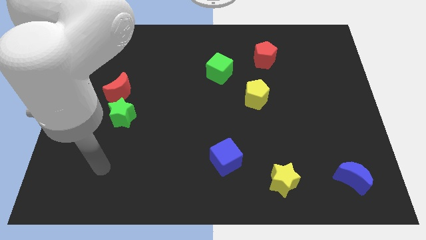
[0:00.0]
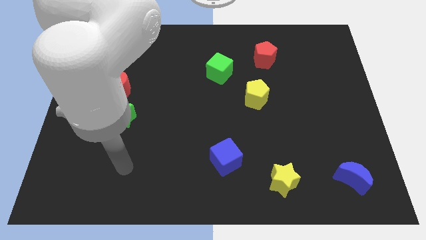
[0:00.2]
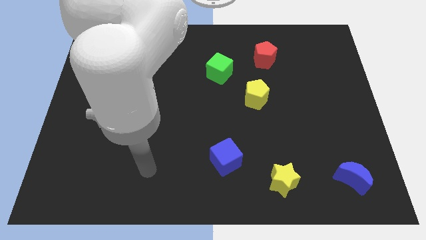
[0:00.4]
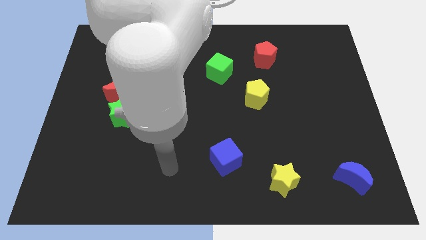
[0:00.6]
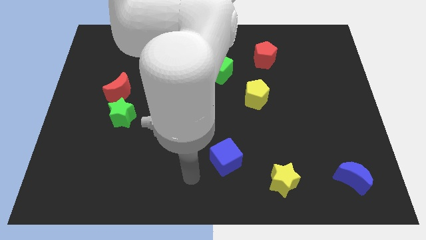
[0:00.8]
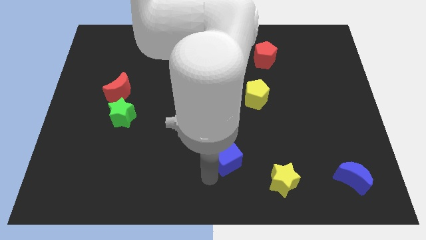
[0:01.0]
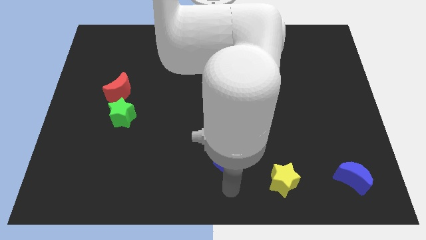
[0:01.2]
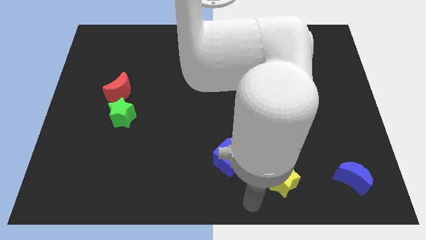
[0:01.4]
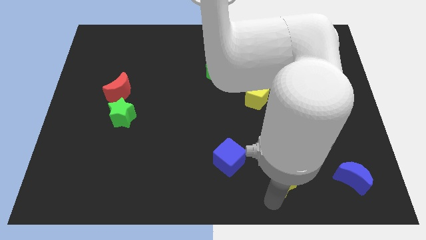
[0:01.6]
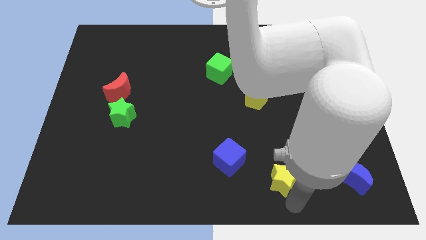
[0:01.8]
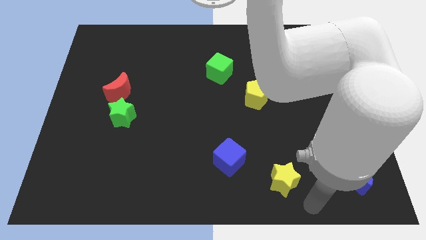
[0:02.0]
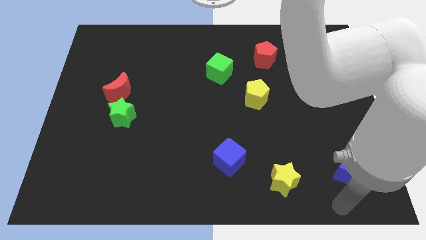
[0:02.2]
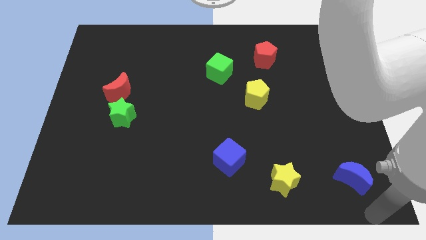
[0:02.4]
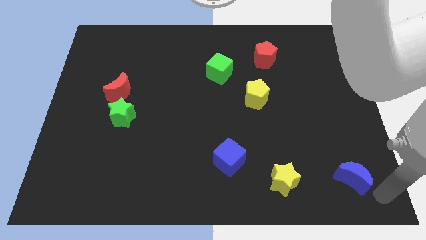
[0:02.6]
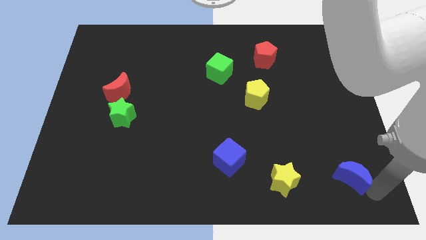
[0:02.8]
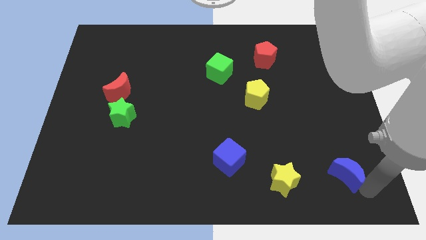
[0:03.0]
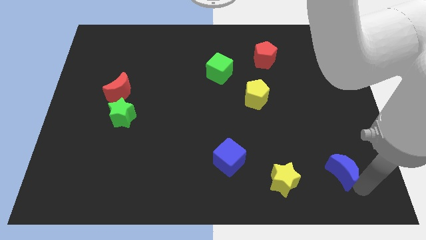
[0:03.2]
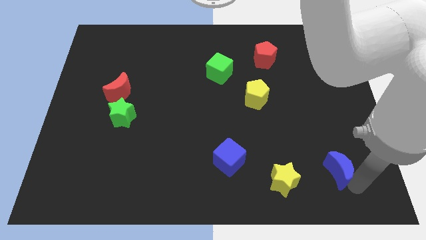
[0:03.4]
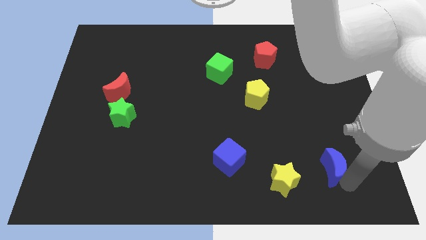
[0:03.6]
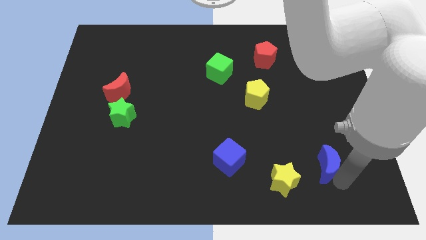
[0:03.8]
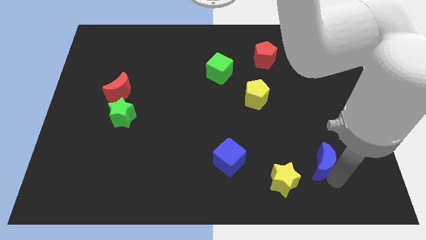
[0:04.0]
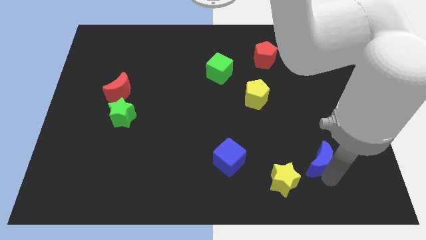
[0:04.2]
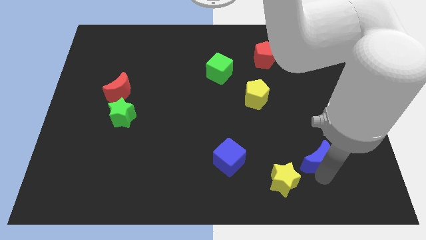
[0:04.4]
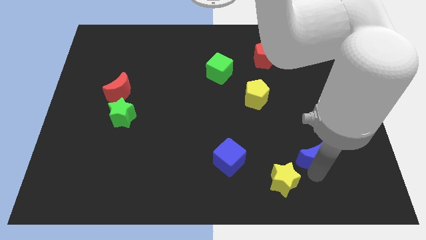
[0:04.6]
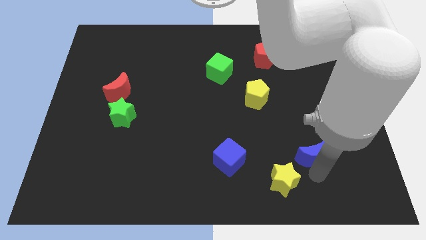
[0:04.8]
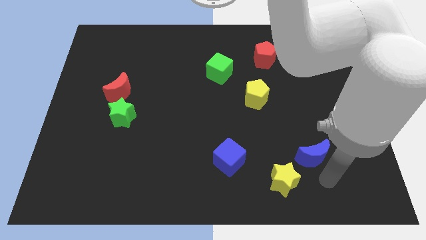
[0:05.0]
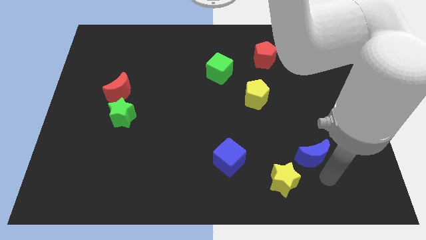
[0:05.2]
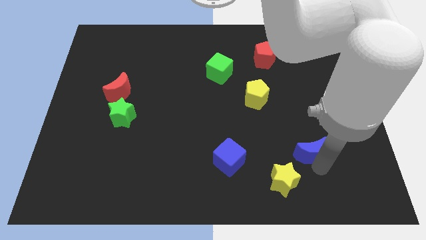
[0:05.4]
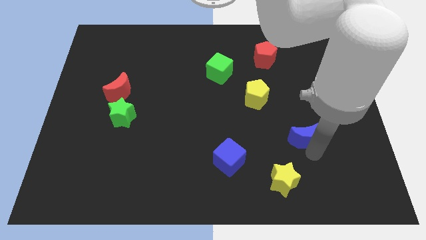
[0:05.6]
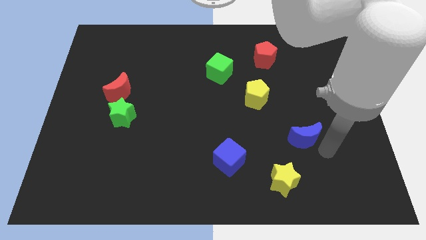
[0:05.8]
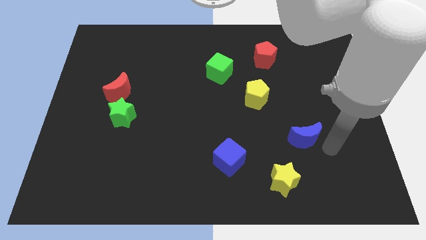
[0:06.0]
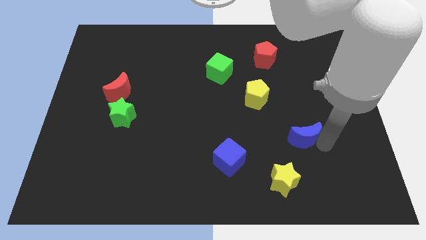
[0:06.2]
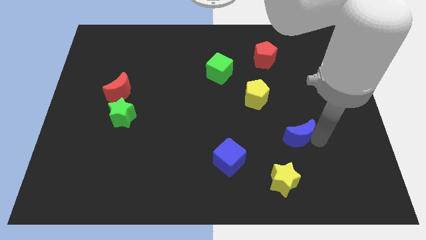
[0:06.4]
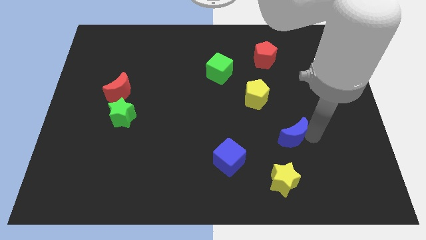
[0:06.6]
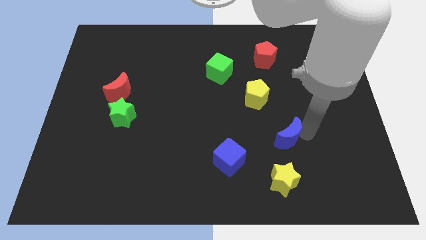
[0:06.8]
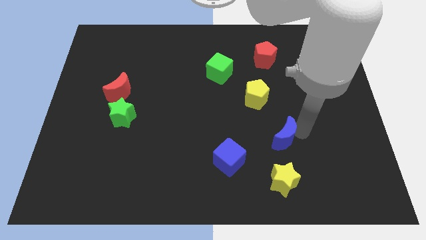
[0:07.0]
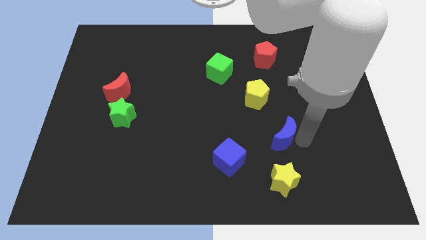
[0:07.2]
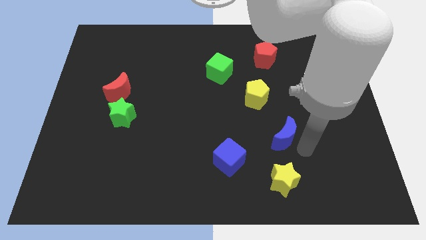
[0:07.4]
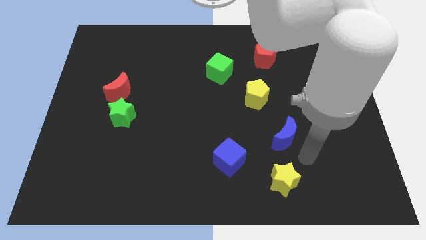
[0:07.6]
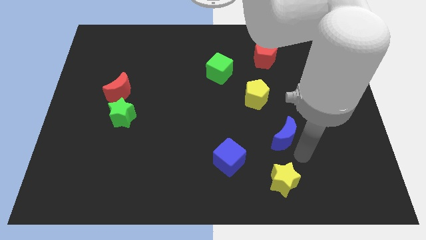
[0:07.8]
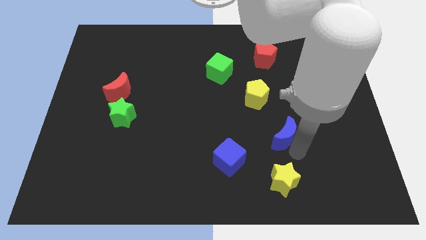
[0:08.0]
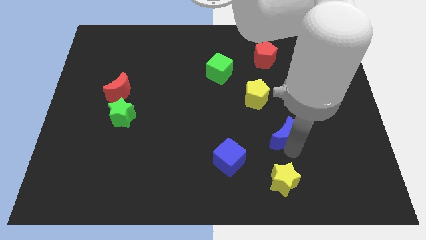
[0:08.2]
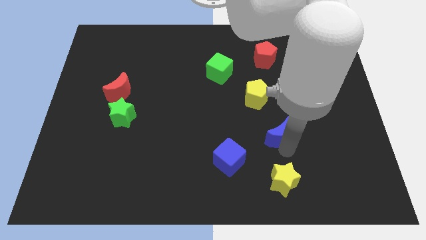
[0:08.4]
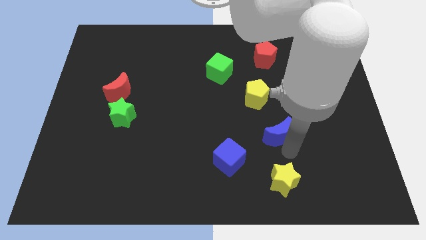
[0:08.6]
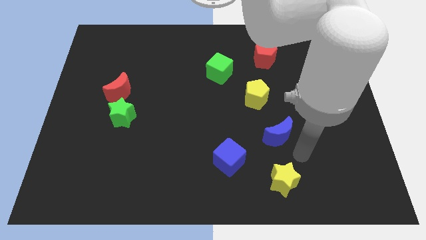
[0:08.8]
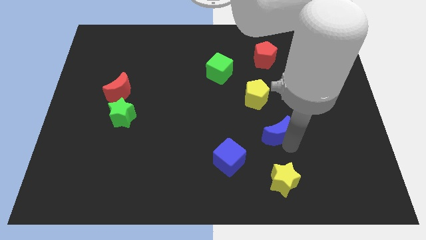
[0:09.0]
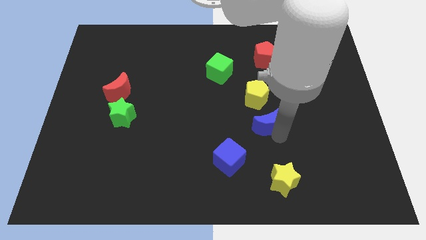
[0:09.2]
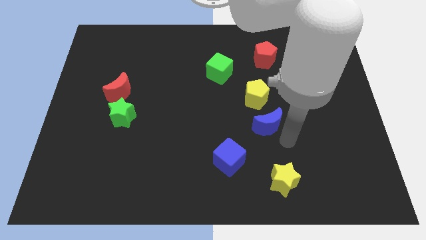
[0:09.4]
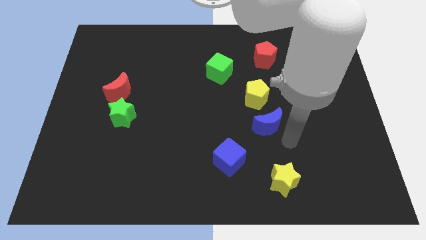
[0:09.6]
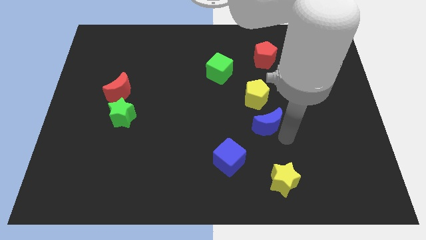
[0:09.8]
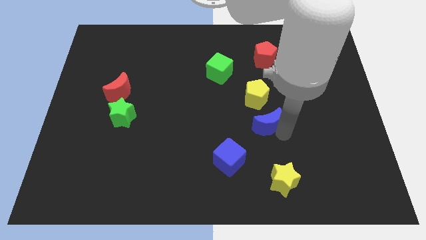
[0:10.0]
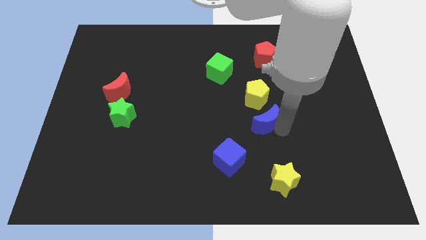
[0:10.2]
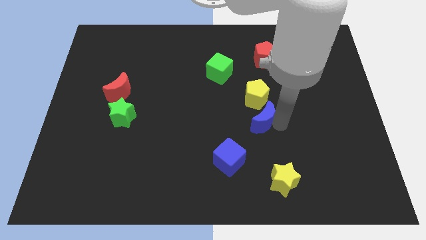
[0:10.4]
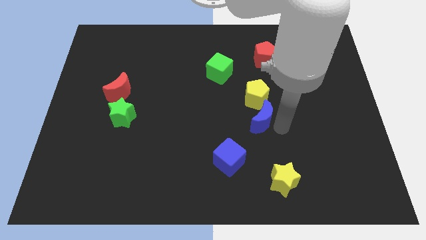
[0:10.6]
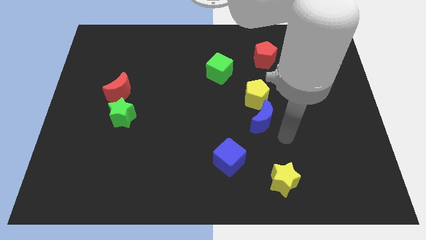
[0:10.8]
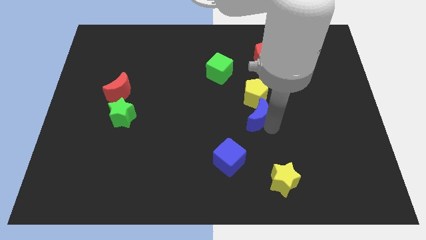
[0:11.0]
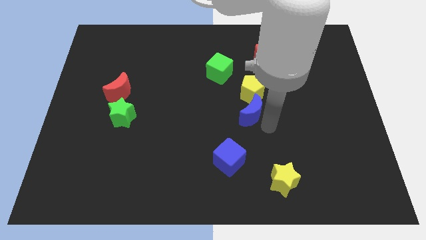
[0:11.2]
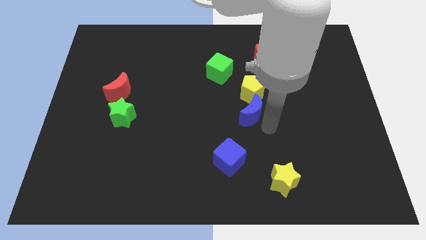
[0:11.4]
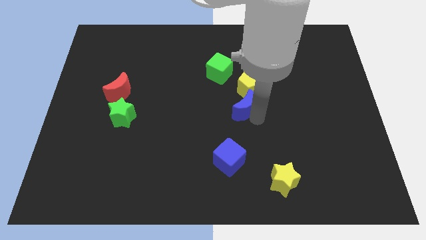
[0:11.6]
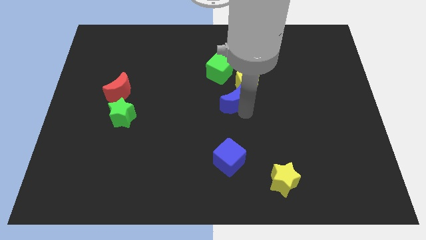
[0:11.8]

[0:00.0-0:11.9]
move the blue moon to the bottom right side of the green cube
